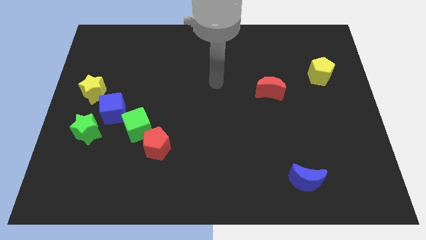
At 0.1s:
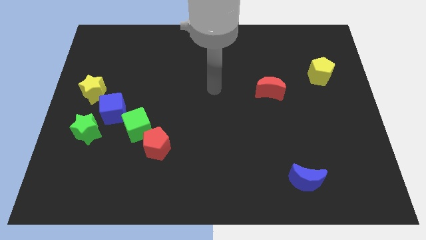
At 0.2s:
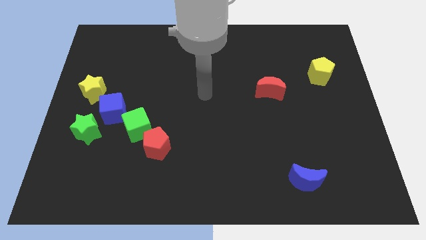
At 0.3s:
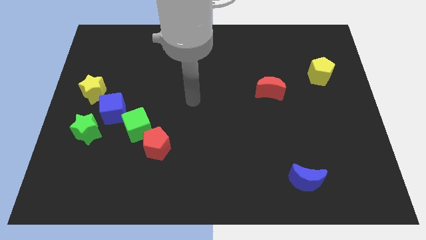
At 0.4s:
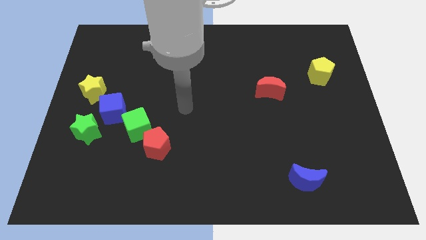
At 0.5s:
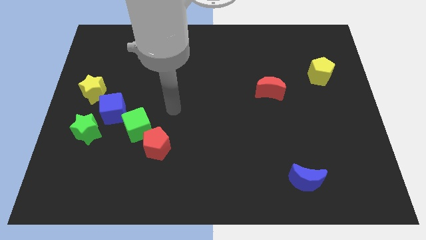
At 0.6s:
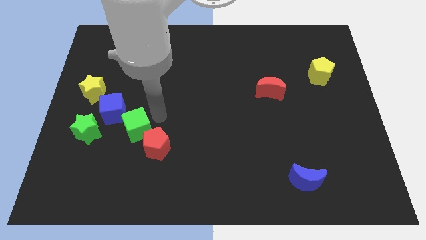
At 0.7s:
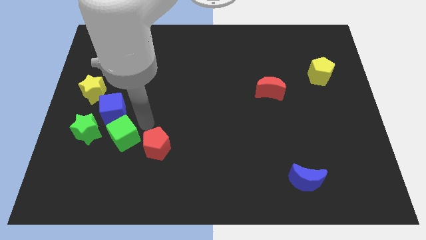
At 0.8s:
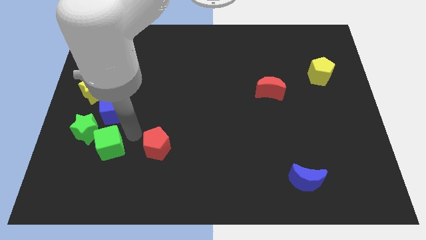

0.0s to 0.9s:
pull the red pentagon apart from the green cube

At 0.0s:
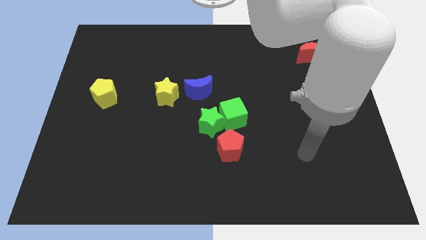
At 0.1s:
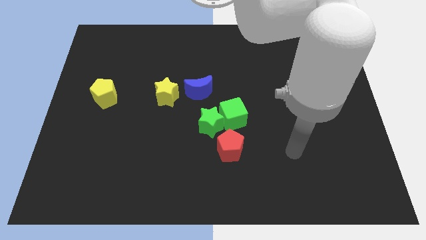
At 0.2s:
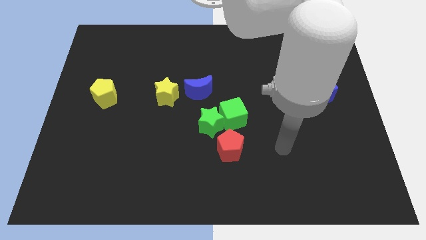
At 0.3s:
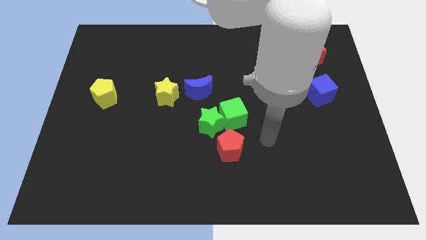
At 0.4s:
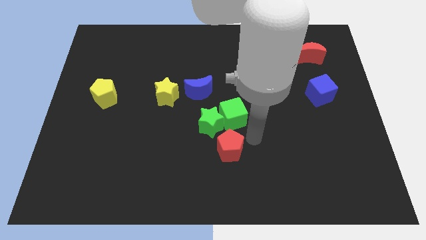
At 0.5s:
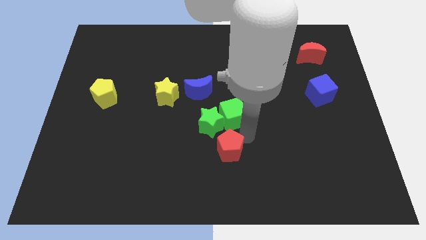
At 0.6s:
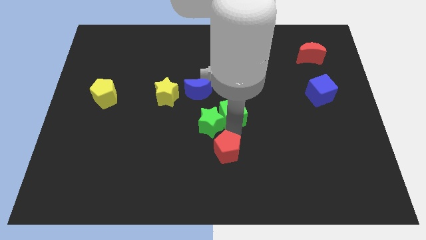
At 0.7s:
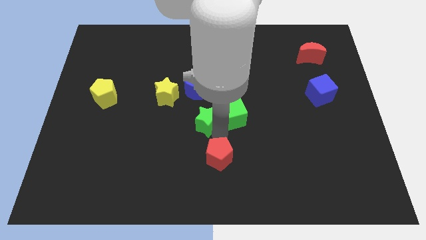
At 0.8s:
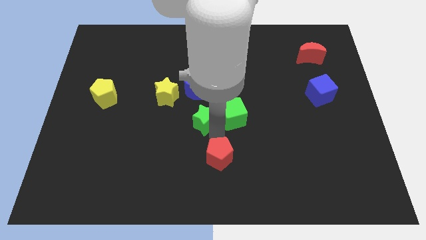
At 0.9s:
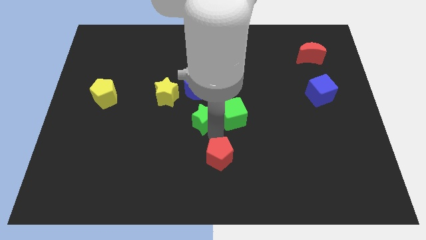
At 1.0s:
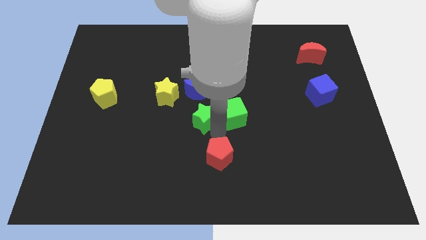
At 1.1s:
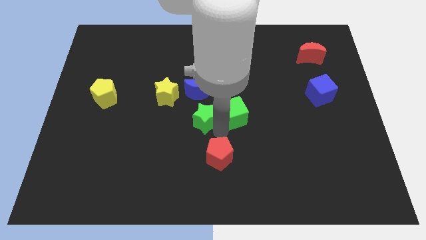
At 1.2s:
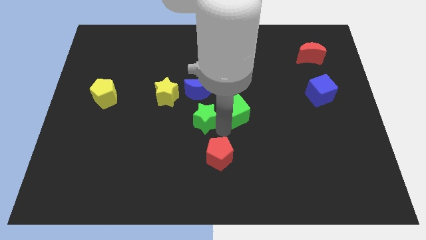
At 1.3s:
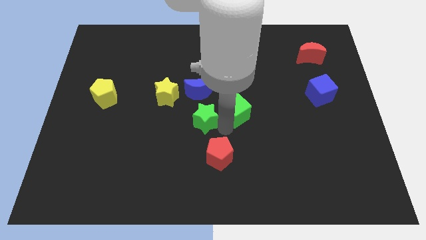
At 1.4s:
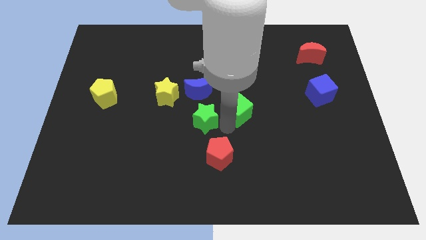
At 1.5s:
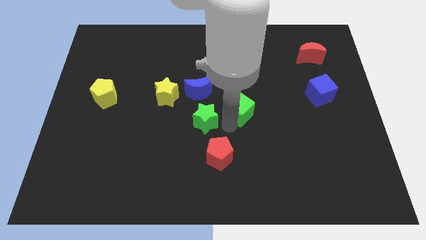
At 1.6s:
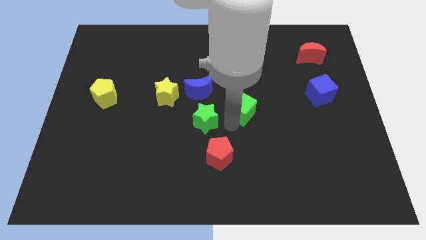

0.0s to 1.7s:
move the green cube away from the green star and red pentagon

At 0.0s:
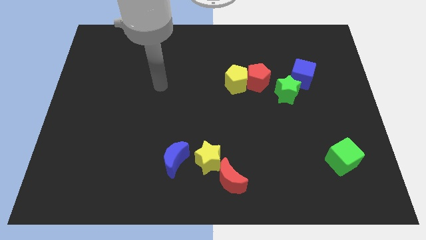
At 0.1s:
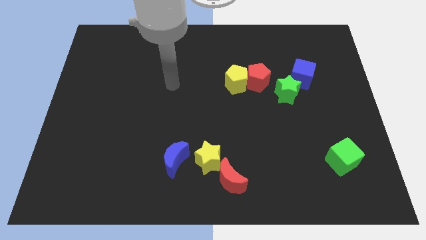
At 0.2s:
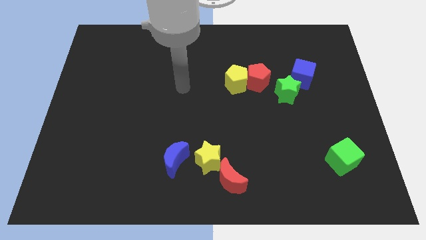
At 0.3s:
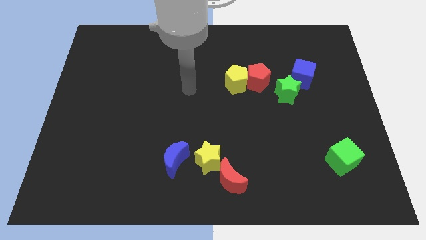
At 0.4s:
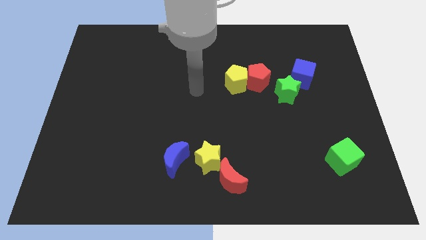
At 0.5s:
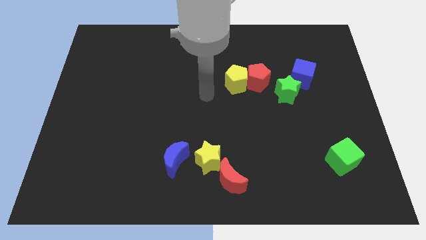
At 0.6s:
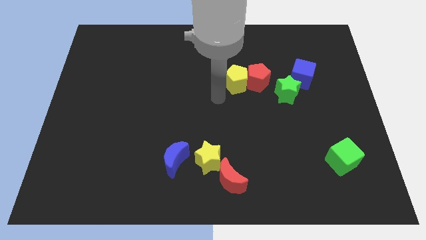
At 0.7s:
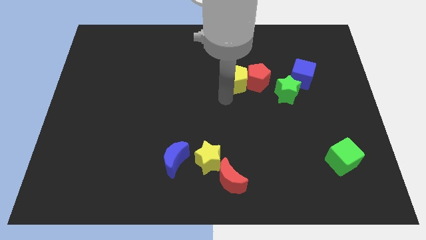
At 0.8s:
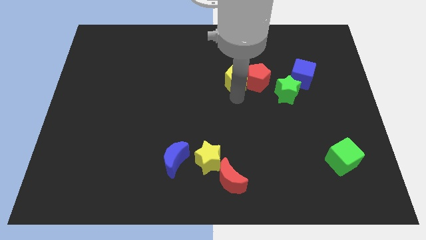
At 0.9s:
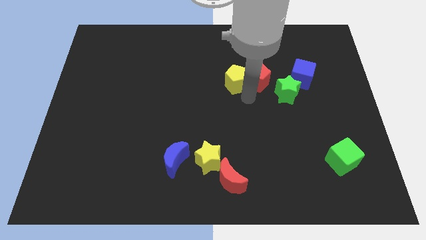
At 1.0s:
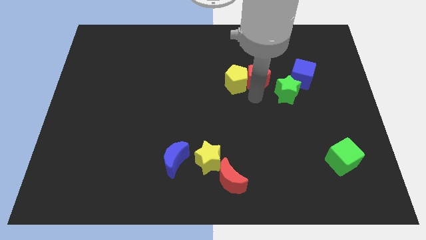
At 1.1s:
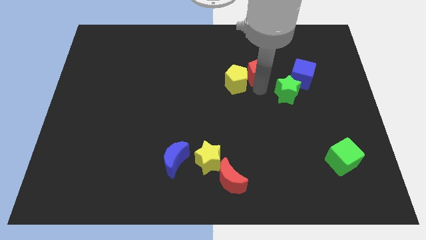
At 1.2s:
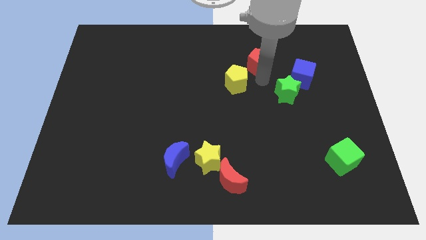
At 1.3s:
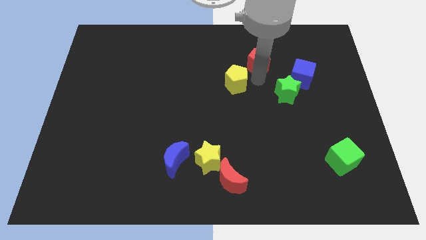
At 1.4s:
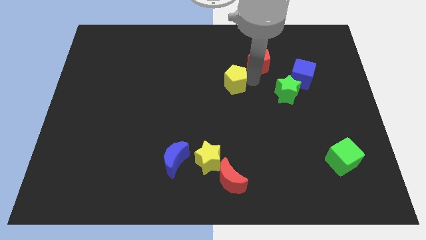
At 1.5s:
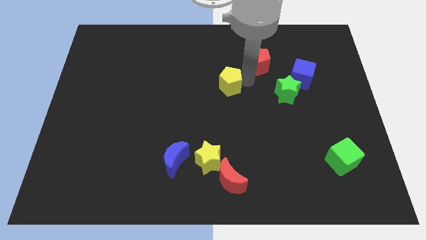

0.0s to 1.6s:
pull the yellow pentagon apart from the red pentagon

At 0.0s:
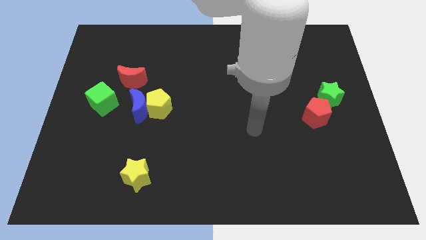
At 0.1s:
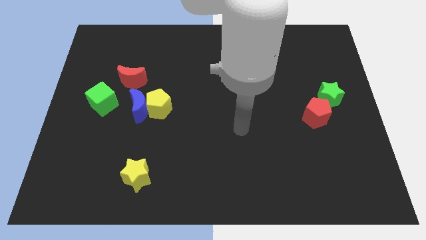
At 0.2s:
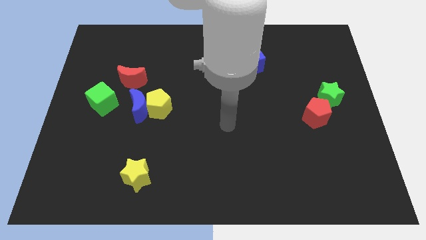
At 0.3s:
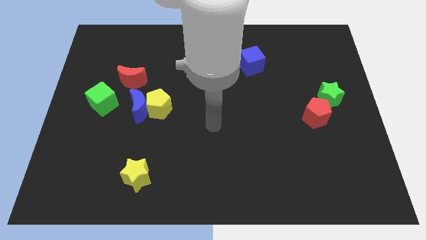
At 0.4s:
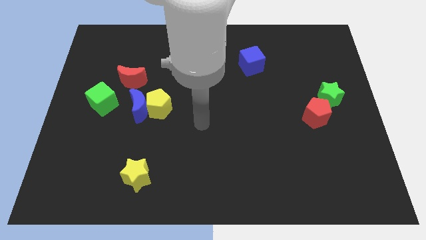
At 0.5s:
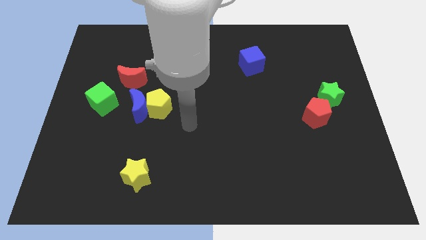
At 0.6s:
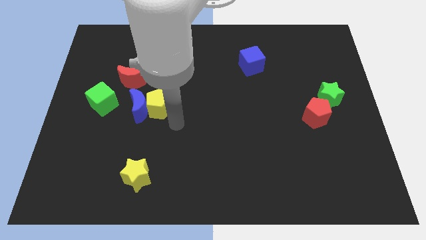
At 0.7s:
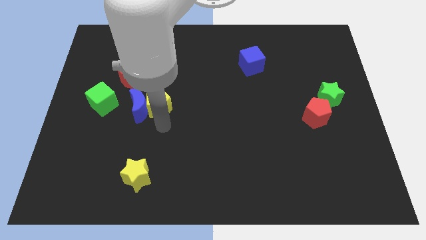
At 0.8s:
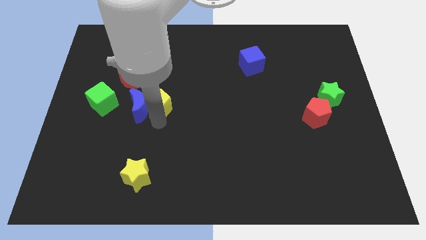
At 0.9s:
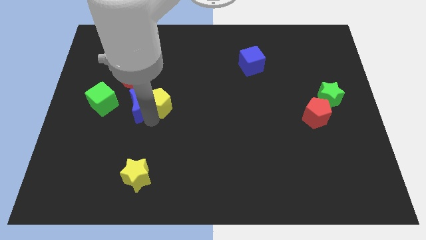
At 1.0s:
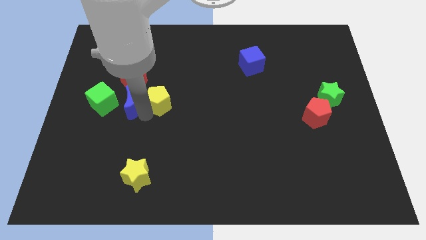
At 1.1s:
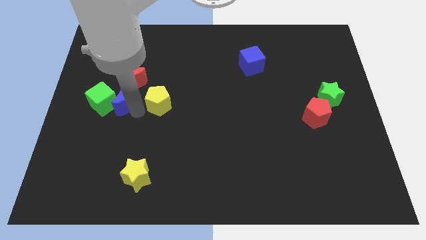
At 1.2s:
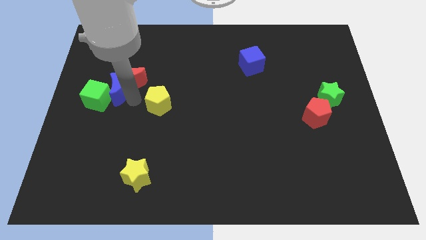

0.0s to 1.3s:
move the yellow pentagon away from the blue moon

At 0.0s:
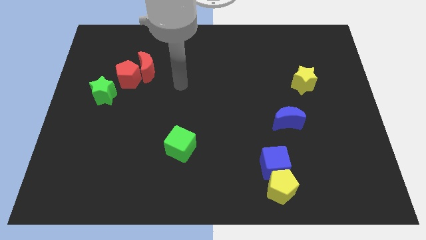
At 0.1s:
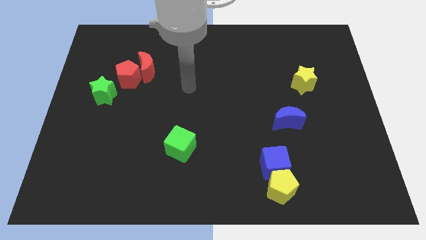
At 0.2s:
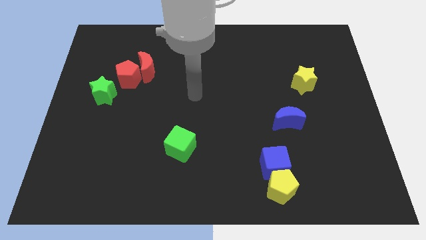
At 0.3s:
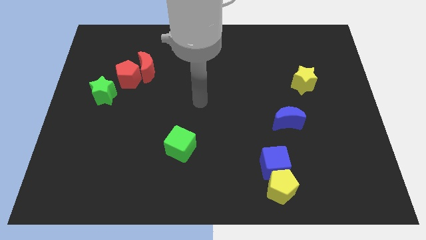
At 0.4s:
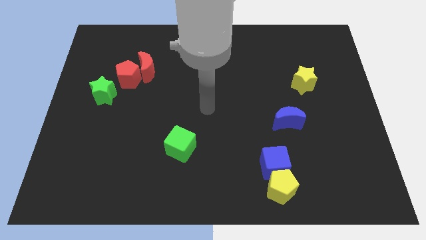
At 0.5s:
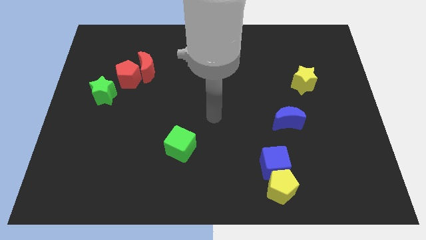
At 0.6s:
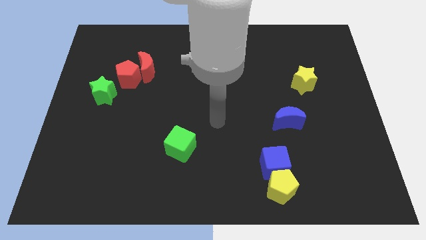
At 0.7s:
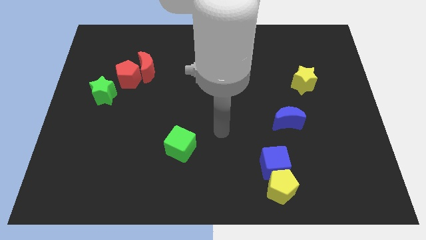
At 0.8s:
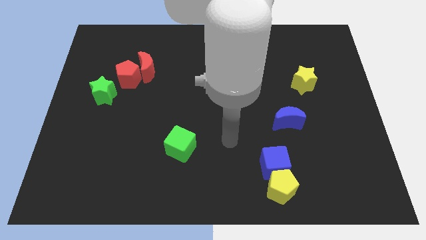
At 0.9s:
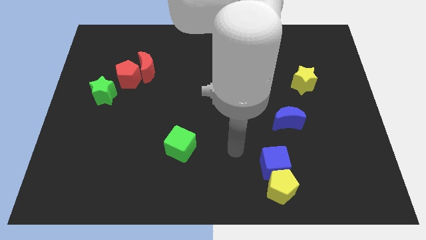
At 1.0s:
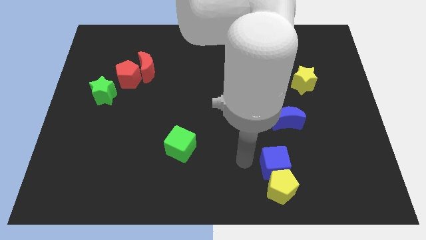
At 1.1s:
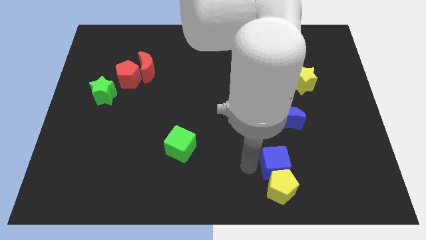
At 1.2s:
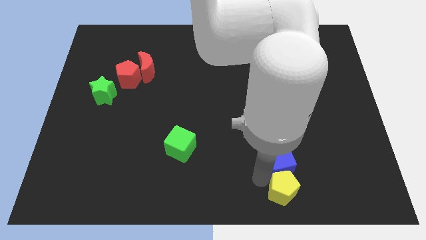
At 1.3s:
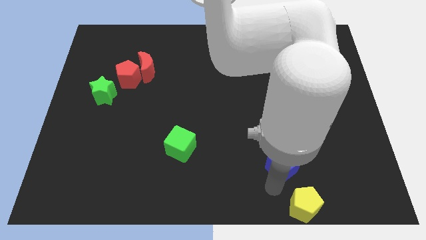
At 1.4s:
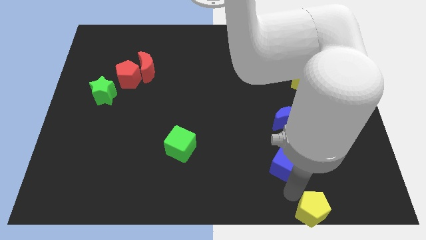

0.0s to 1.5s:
separate the blue cube from the yellow pentagon

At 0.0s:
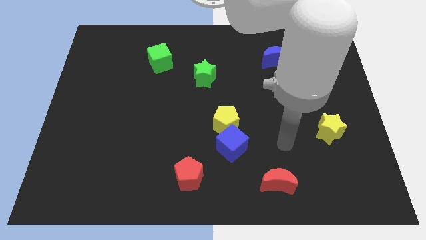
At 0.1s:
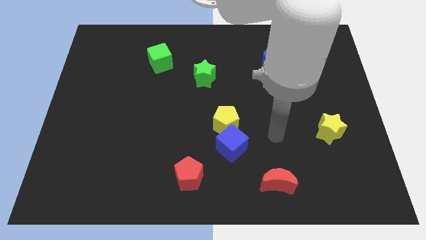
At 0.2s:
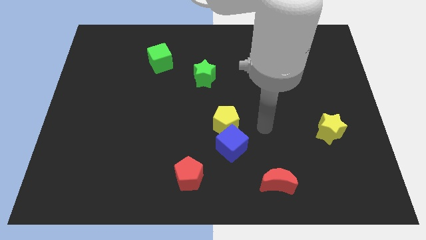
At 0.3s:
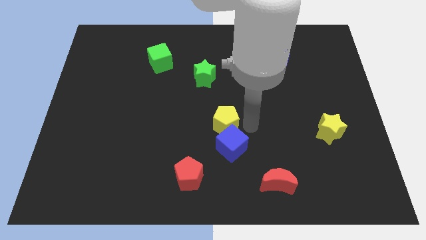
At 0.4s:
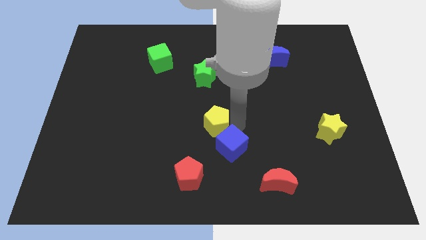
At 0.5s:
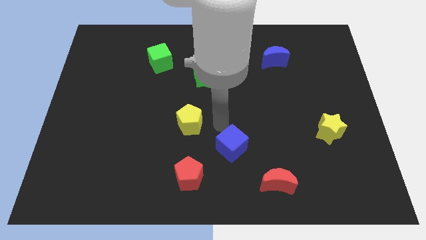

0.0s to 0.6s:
move the blue cube away from the yellow pentagon

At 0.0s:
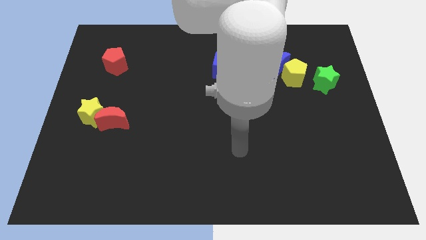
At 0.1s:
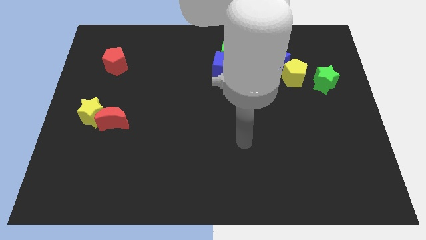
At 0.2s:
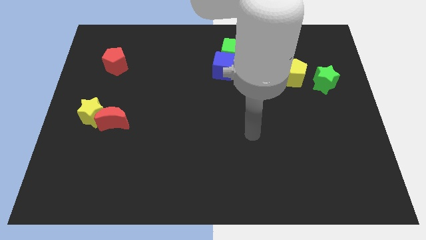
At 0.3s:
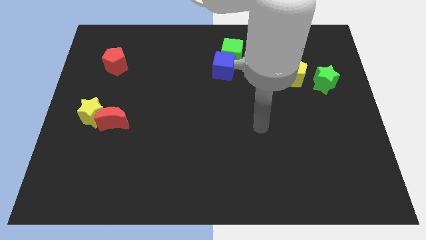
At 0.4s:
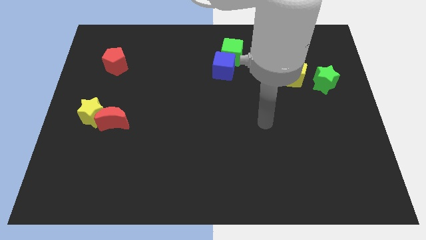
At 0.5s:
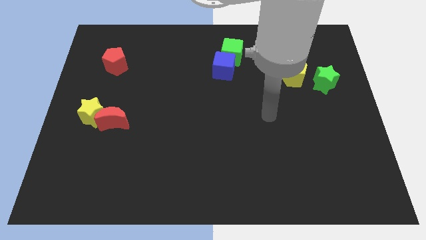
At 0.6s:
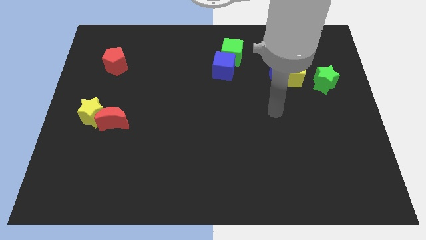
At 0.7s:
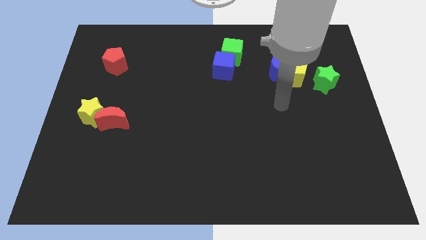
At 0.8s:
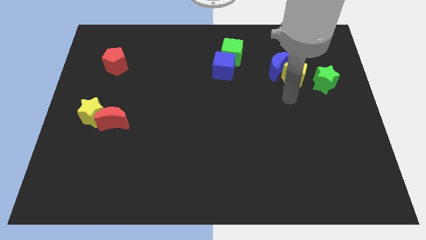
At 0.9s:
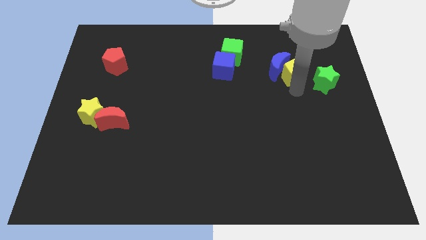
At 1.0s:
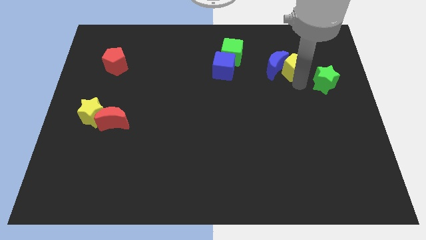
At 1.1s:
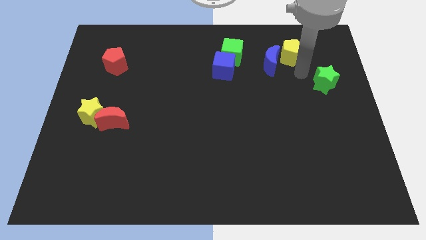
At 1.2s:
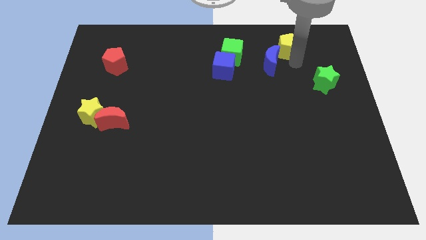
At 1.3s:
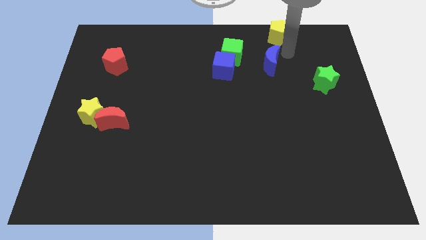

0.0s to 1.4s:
separate the blue moon from the yellow pentagon

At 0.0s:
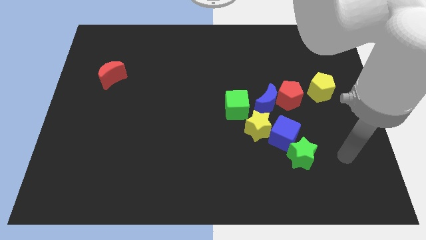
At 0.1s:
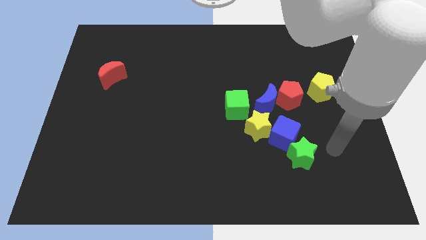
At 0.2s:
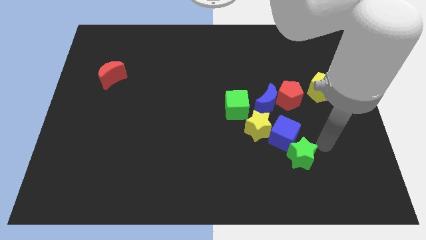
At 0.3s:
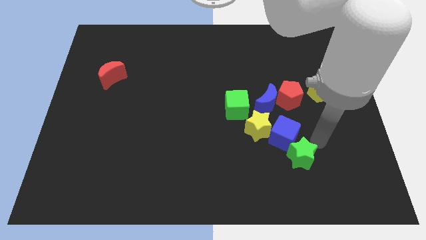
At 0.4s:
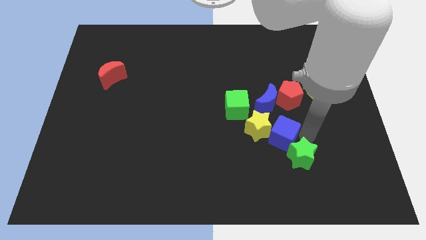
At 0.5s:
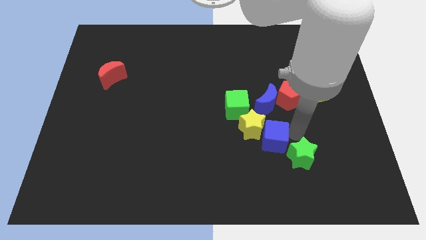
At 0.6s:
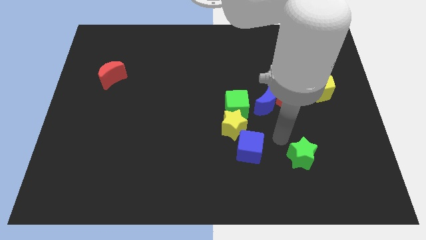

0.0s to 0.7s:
pull the green star apart from the blue cube
